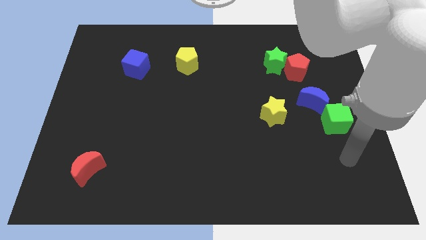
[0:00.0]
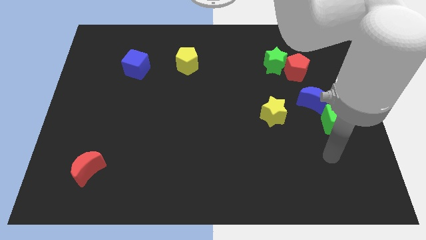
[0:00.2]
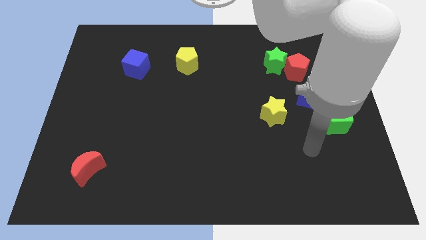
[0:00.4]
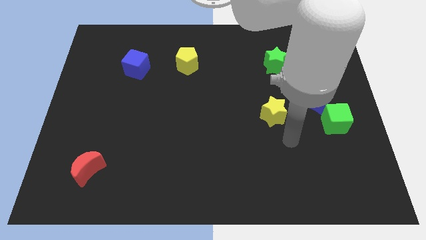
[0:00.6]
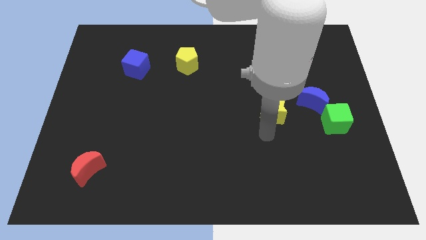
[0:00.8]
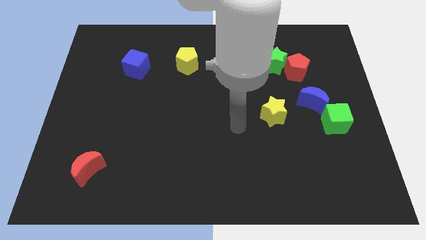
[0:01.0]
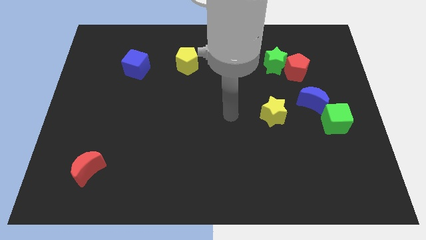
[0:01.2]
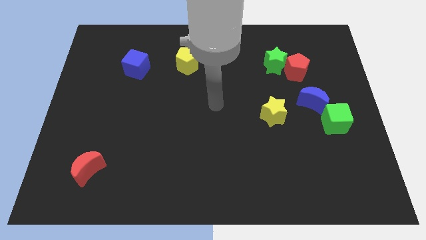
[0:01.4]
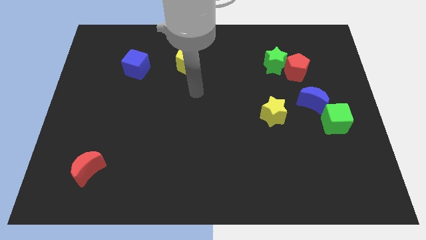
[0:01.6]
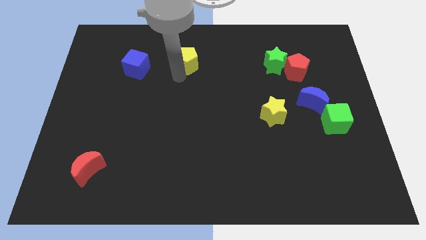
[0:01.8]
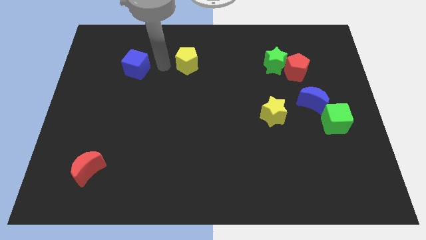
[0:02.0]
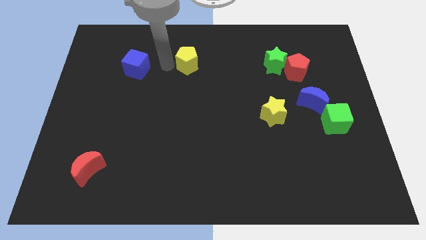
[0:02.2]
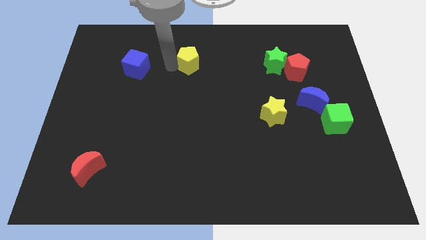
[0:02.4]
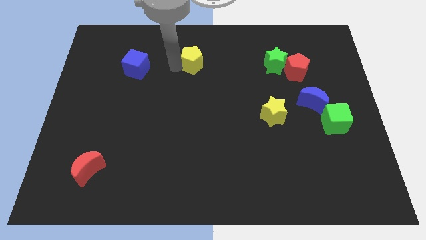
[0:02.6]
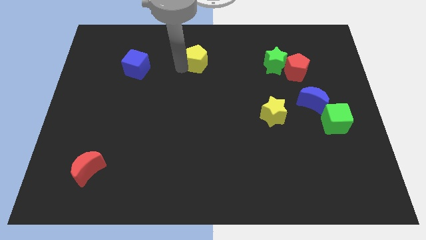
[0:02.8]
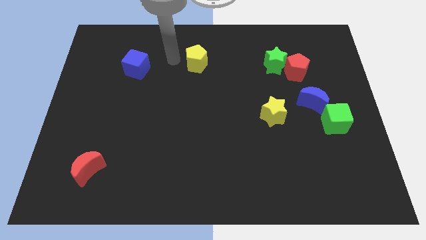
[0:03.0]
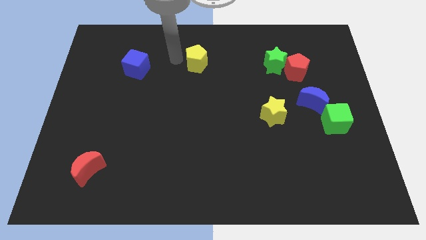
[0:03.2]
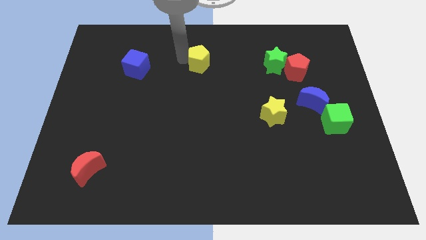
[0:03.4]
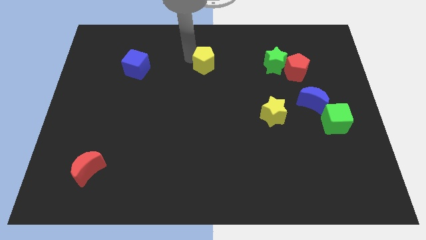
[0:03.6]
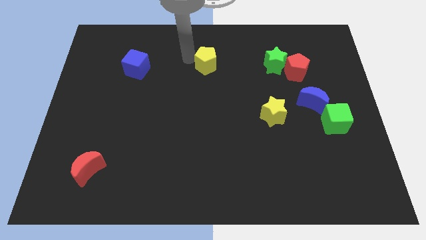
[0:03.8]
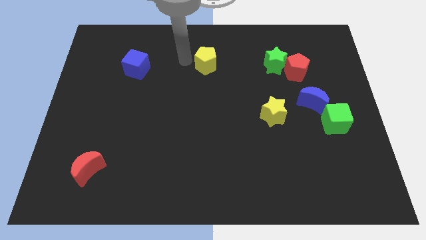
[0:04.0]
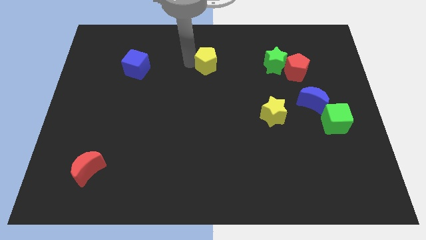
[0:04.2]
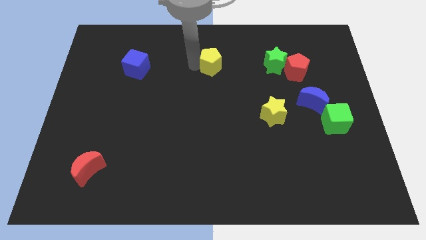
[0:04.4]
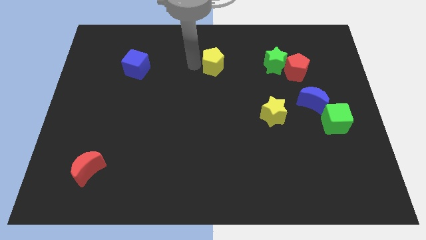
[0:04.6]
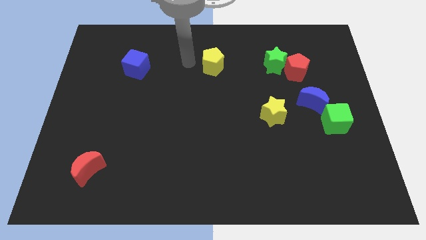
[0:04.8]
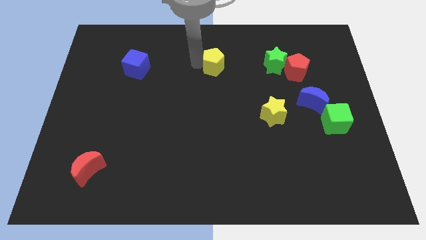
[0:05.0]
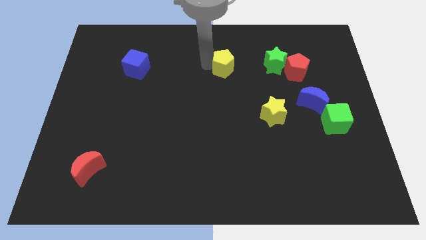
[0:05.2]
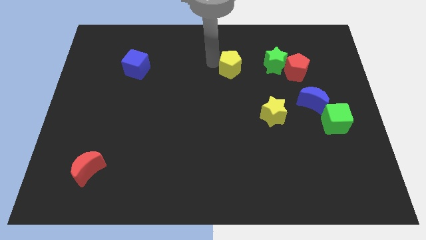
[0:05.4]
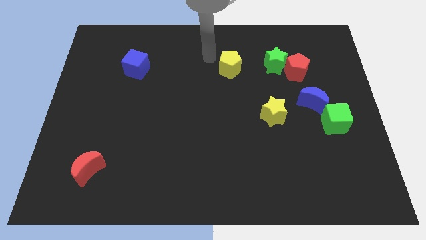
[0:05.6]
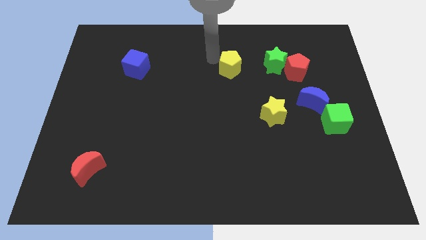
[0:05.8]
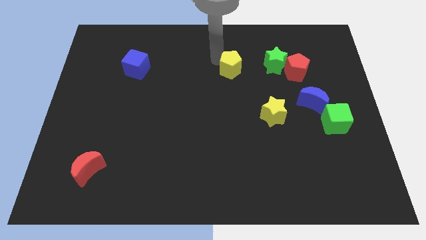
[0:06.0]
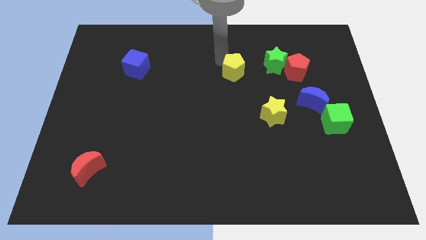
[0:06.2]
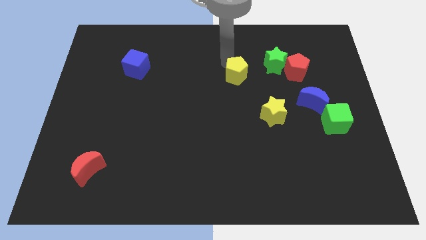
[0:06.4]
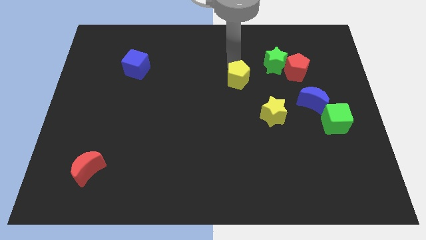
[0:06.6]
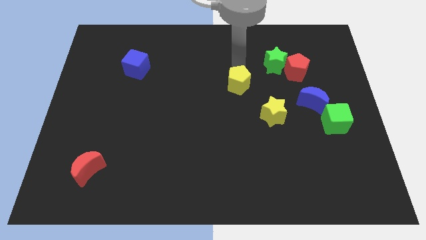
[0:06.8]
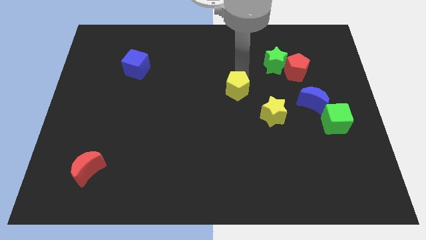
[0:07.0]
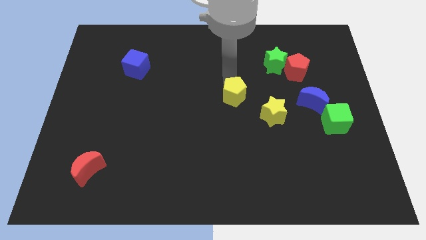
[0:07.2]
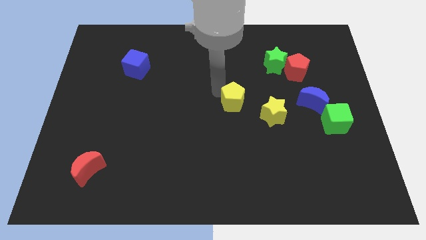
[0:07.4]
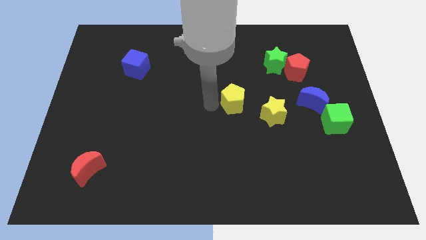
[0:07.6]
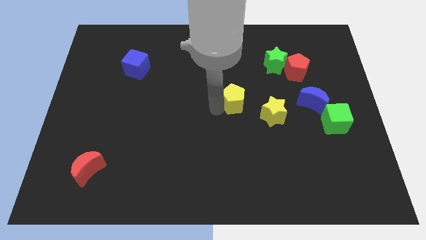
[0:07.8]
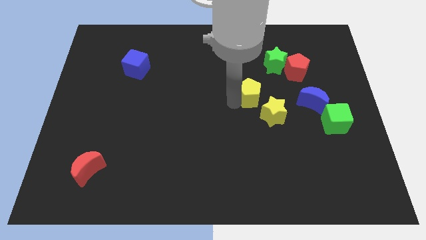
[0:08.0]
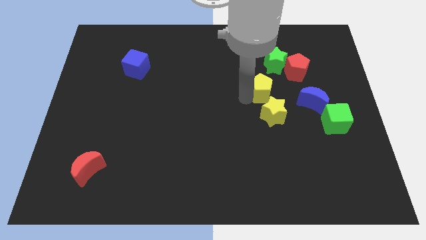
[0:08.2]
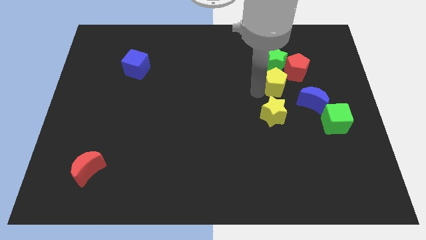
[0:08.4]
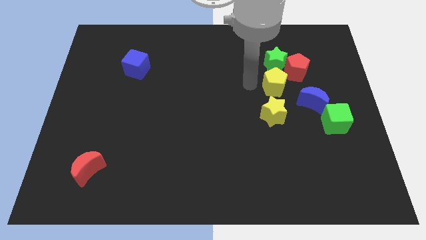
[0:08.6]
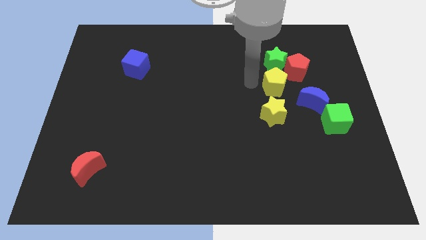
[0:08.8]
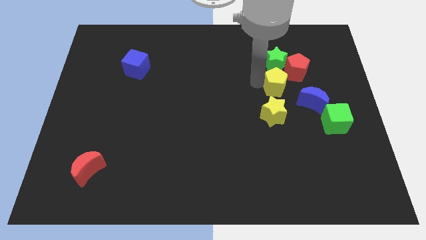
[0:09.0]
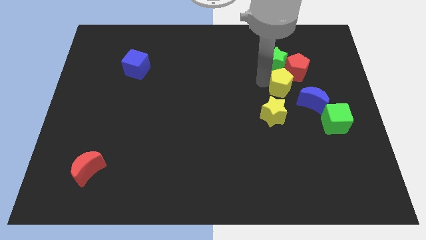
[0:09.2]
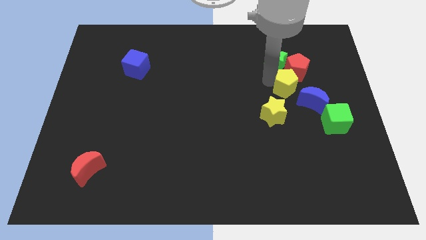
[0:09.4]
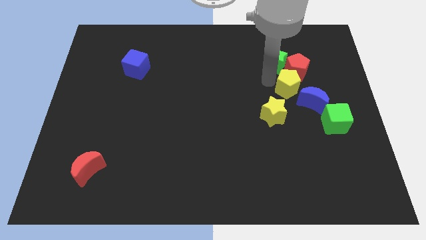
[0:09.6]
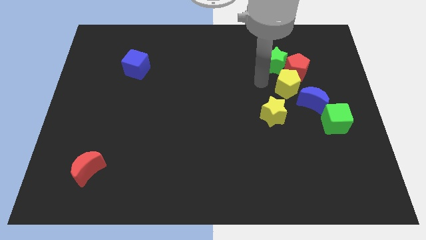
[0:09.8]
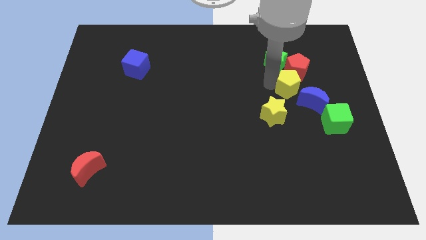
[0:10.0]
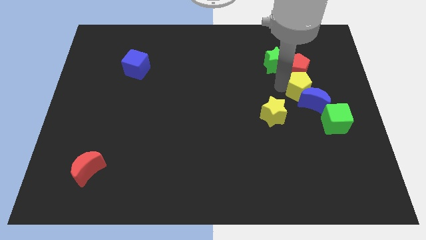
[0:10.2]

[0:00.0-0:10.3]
push the yellow pentagon to the bottom right side of the red pentagon

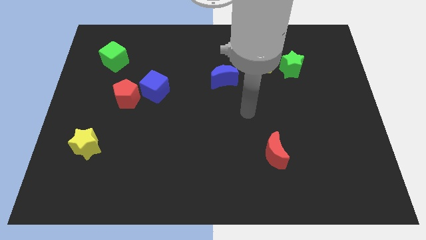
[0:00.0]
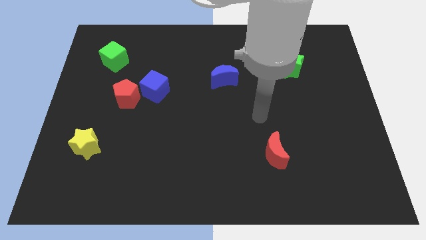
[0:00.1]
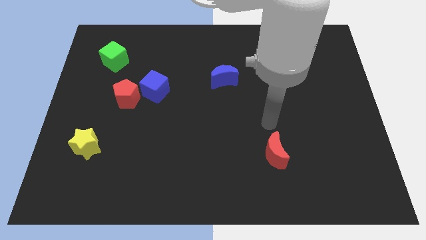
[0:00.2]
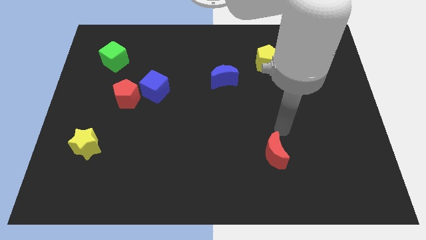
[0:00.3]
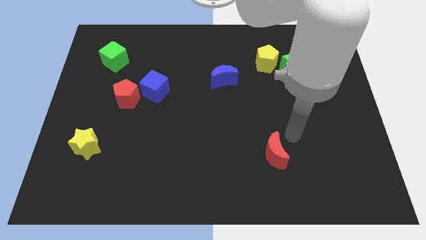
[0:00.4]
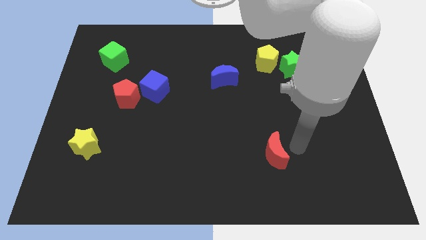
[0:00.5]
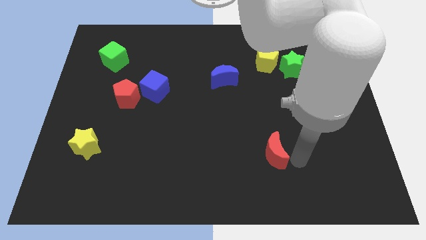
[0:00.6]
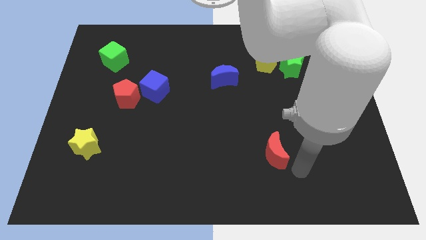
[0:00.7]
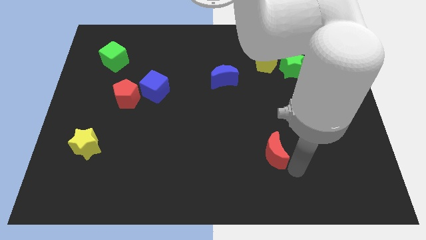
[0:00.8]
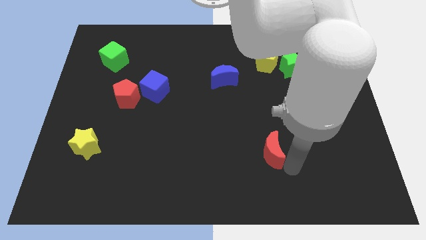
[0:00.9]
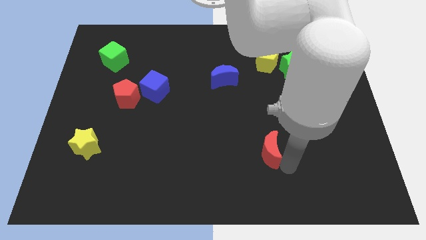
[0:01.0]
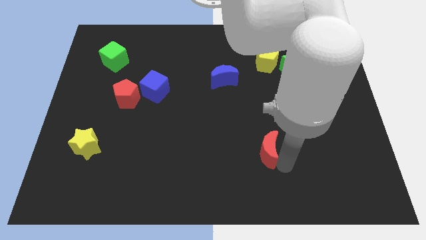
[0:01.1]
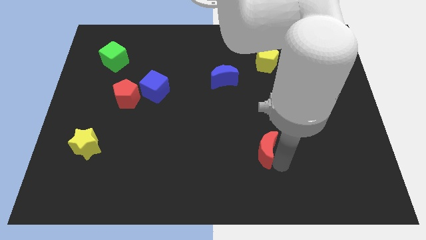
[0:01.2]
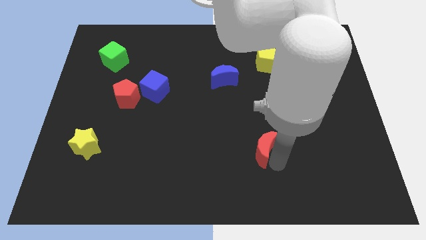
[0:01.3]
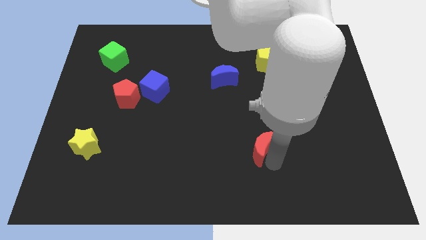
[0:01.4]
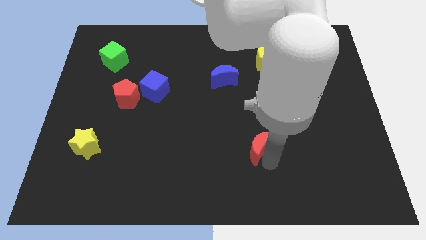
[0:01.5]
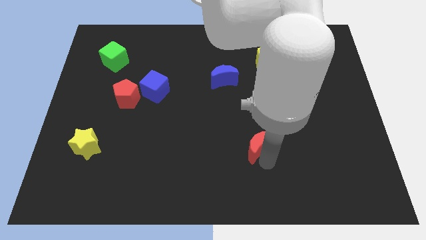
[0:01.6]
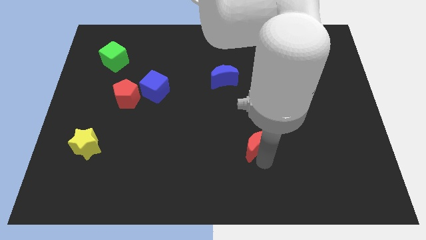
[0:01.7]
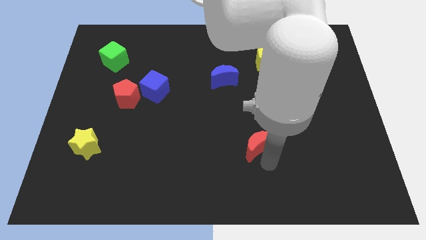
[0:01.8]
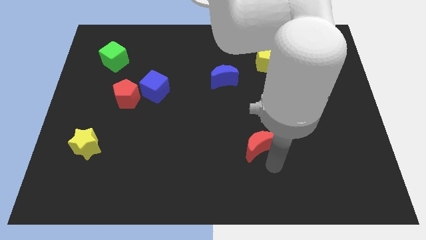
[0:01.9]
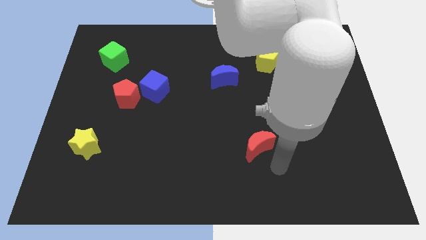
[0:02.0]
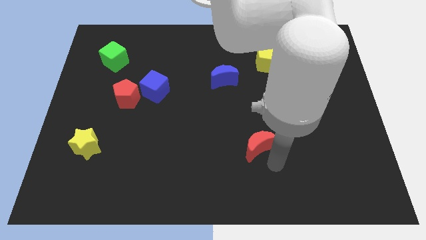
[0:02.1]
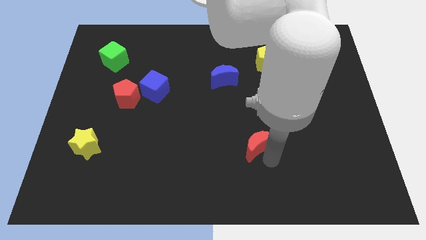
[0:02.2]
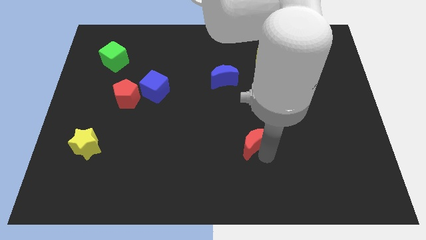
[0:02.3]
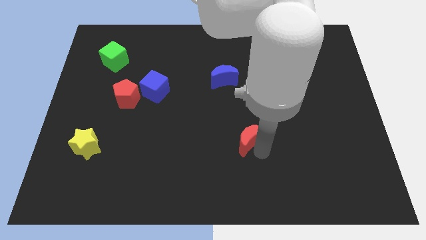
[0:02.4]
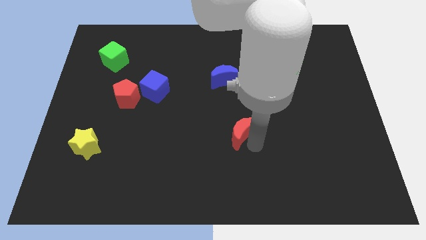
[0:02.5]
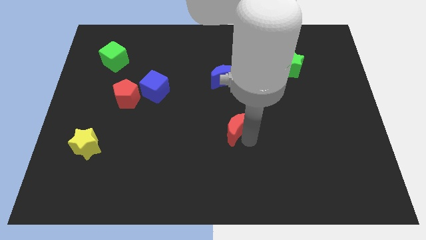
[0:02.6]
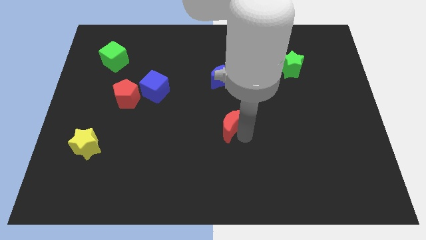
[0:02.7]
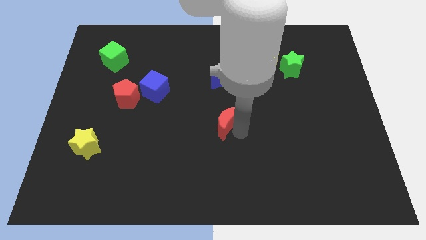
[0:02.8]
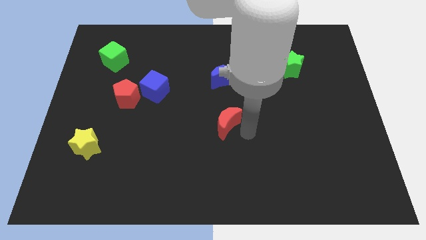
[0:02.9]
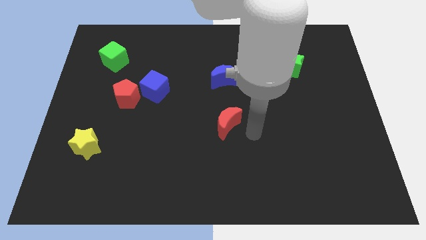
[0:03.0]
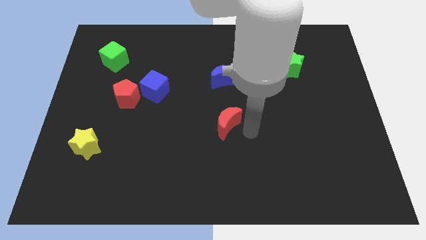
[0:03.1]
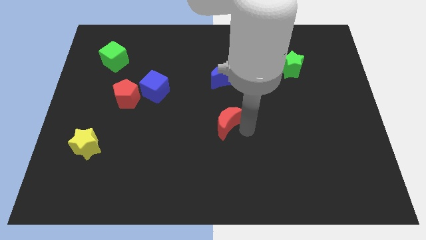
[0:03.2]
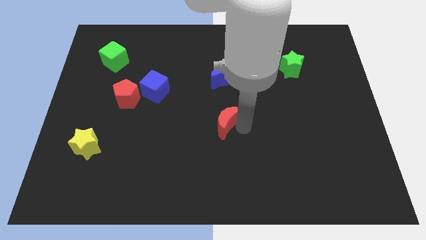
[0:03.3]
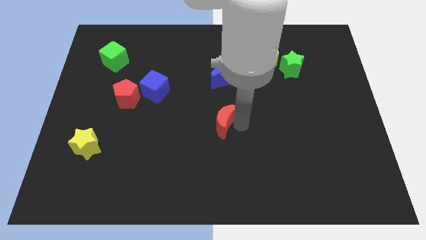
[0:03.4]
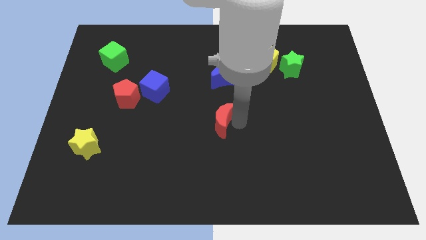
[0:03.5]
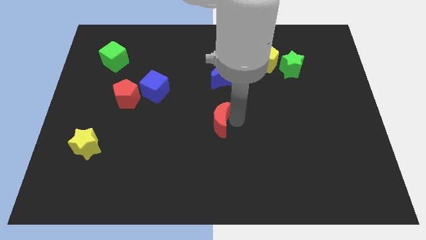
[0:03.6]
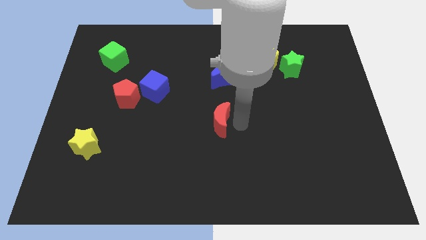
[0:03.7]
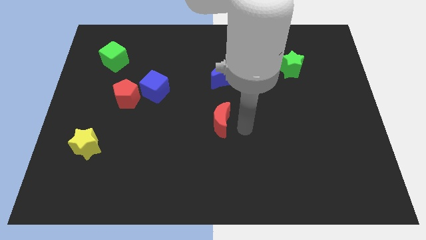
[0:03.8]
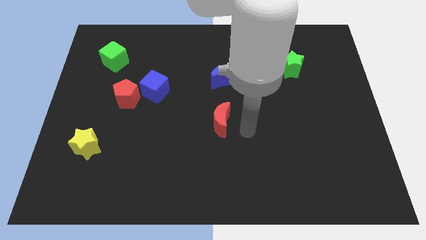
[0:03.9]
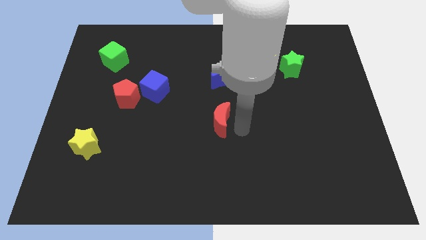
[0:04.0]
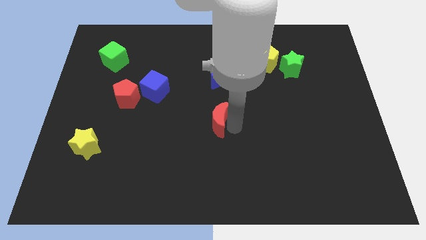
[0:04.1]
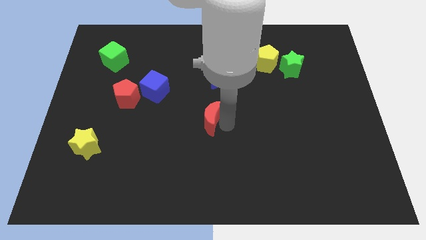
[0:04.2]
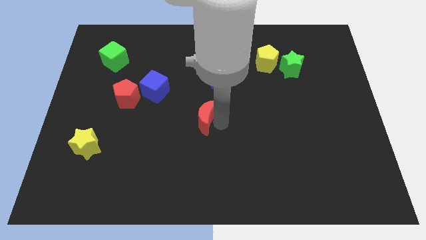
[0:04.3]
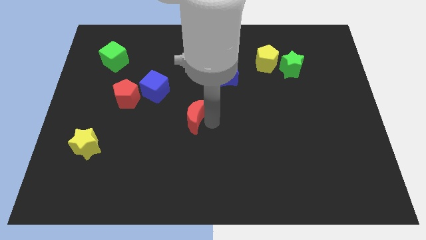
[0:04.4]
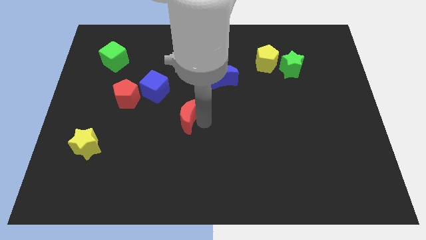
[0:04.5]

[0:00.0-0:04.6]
put the red moon diagonally down and to the right of the blue cube
